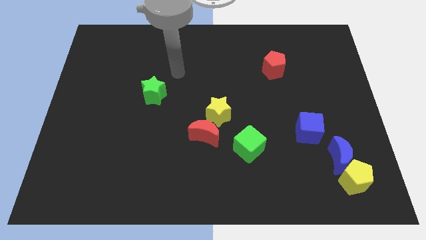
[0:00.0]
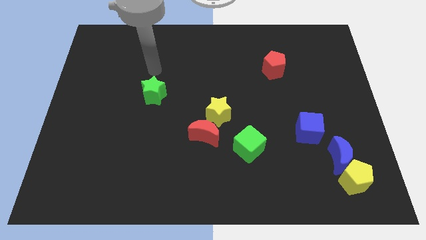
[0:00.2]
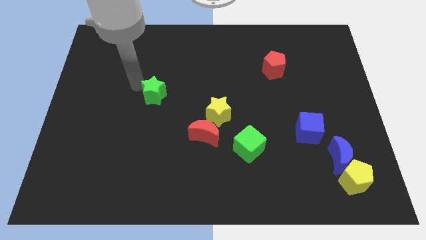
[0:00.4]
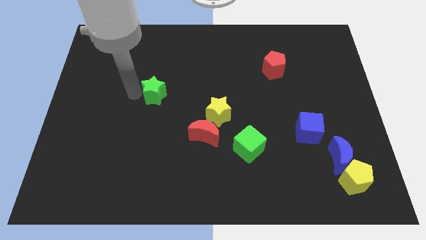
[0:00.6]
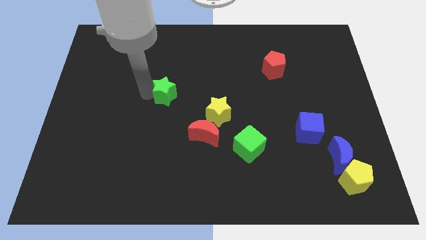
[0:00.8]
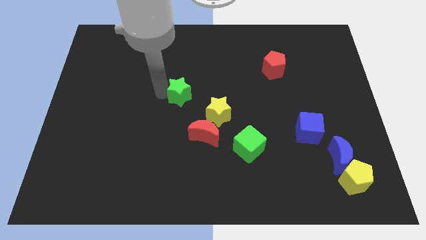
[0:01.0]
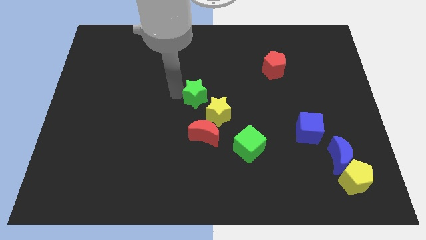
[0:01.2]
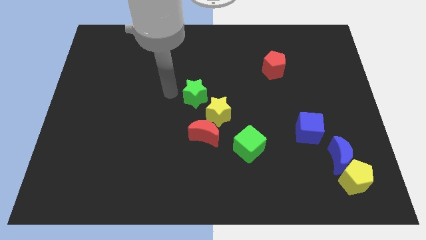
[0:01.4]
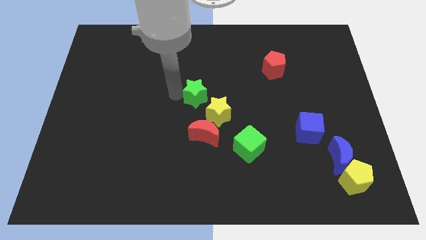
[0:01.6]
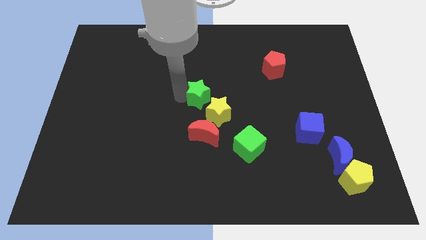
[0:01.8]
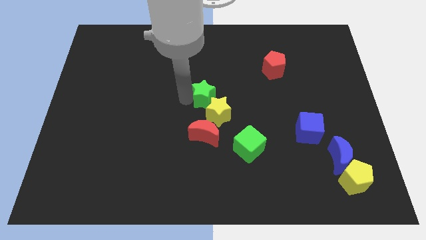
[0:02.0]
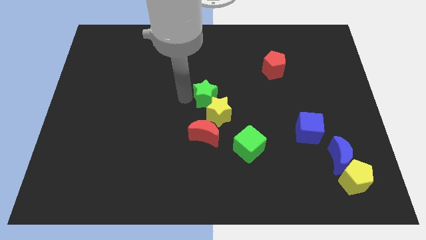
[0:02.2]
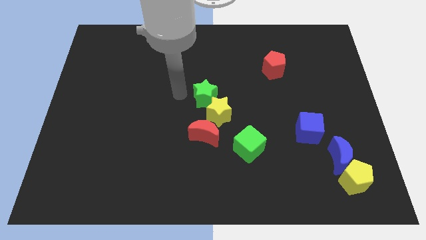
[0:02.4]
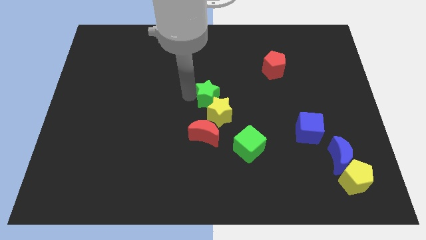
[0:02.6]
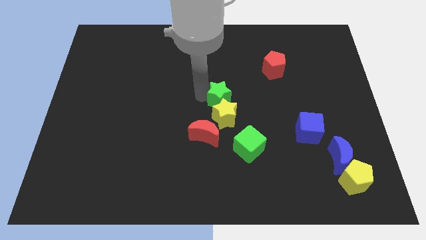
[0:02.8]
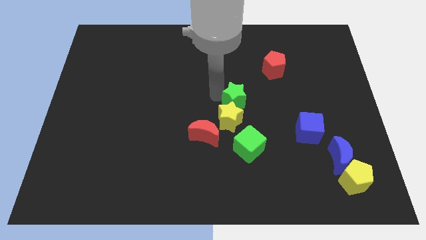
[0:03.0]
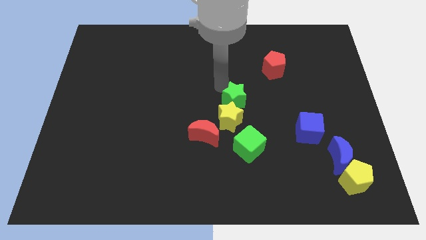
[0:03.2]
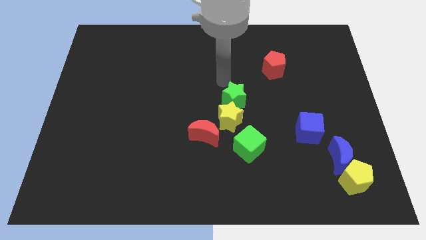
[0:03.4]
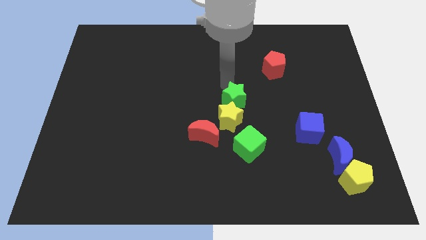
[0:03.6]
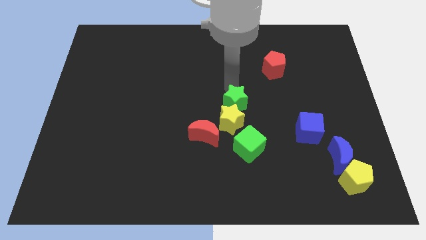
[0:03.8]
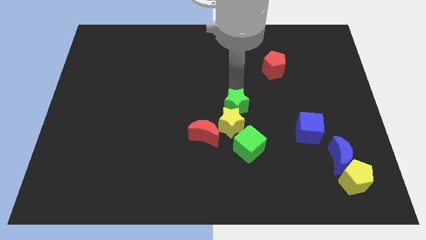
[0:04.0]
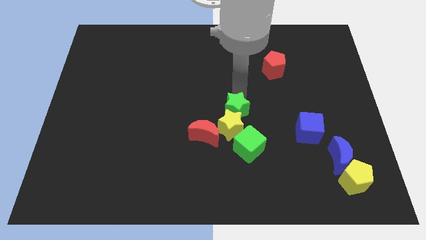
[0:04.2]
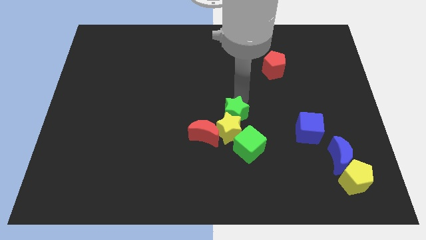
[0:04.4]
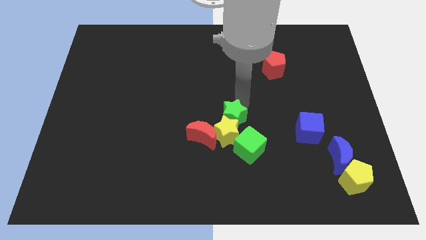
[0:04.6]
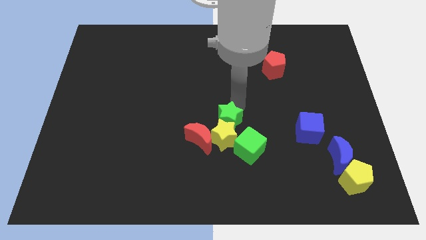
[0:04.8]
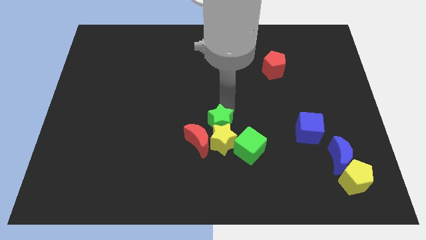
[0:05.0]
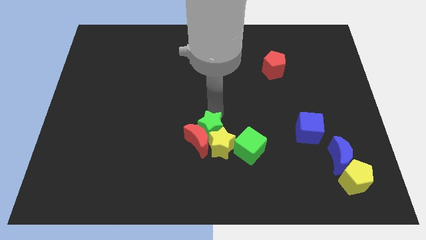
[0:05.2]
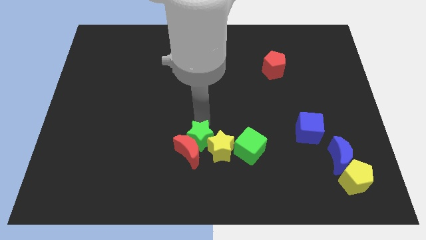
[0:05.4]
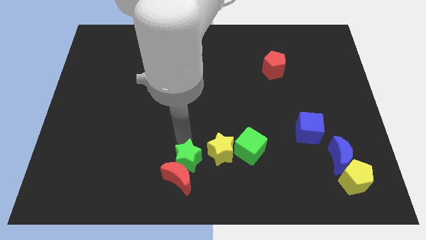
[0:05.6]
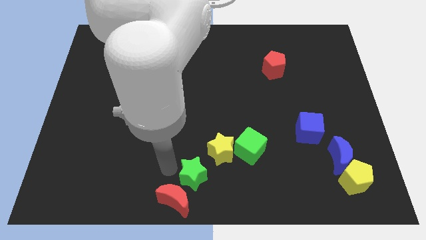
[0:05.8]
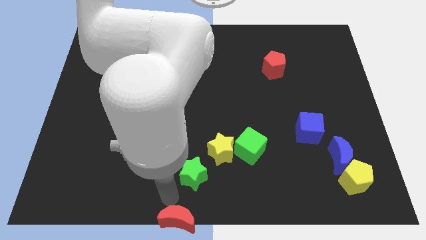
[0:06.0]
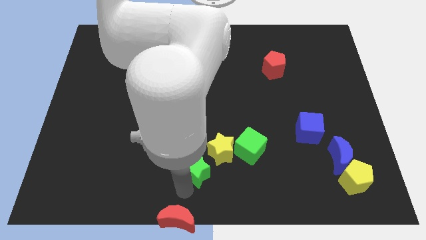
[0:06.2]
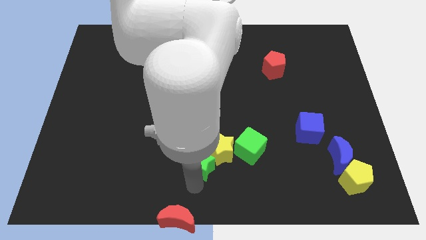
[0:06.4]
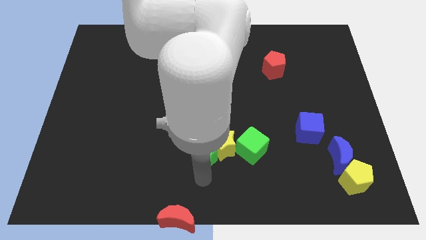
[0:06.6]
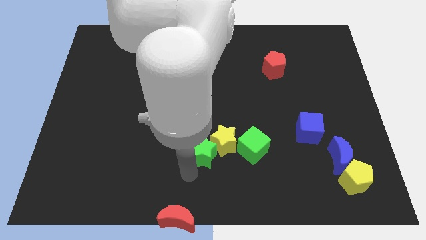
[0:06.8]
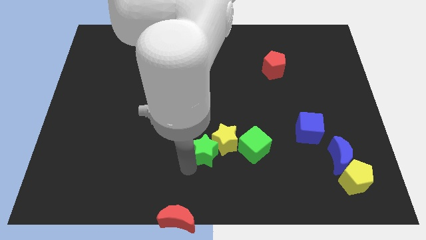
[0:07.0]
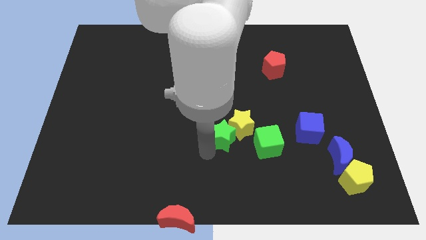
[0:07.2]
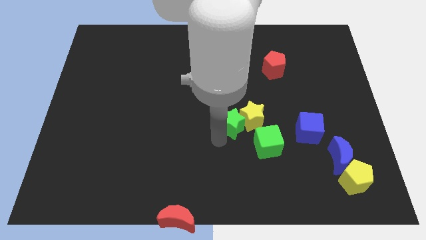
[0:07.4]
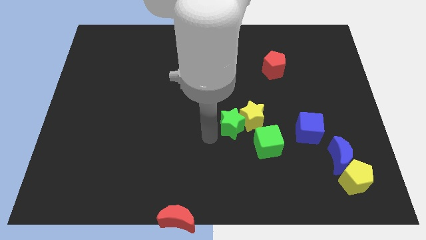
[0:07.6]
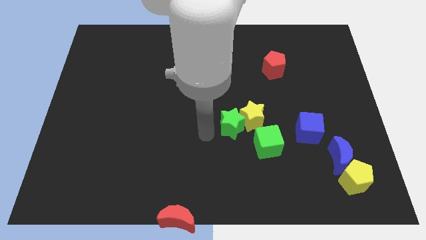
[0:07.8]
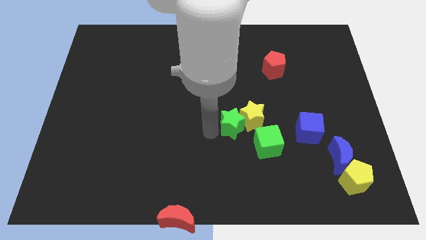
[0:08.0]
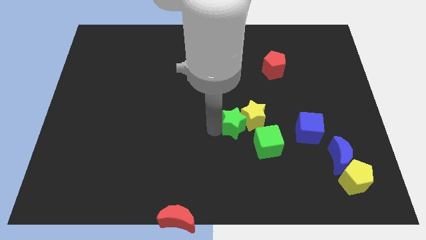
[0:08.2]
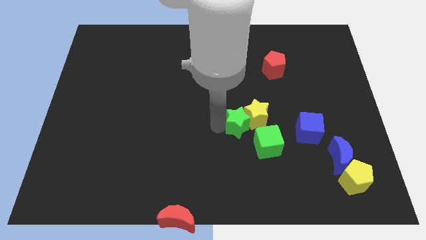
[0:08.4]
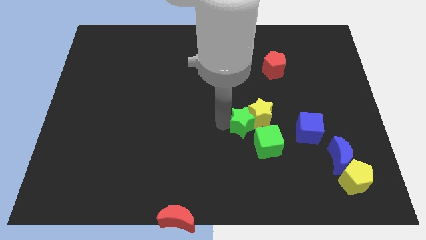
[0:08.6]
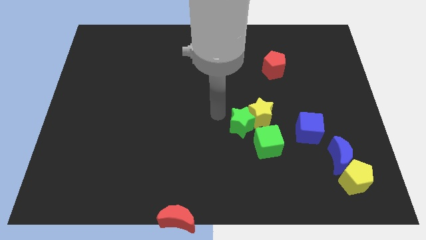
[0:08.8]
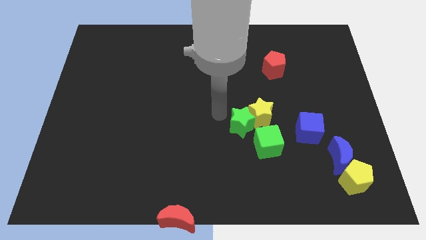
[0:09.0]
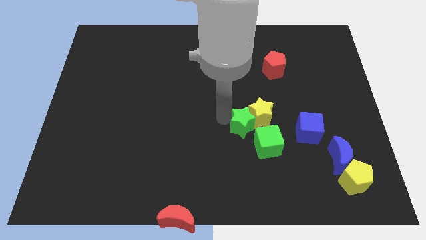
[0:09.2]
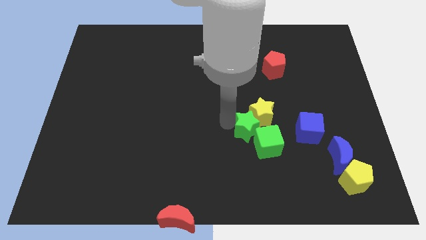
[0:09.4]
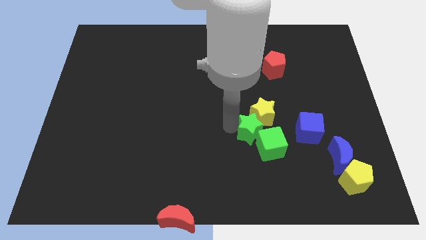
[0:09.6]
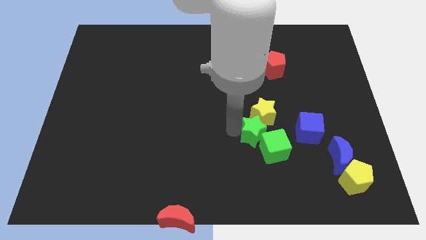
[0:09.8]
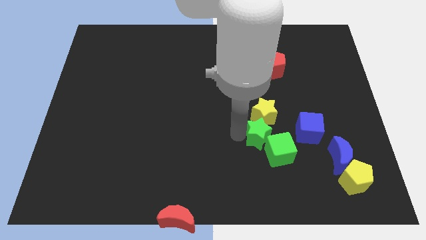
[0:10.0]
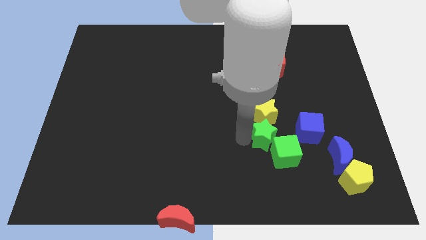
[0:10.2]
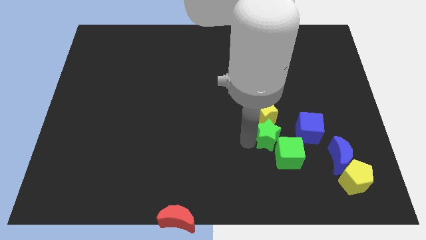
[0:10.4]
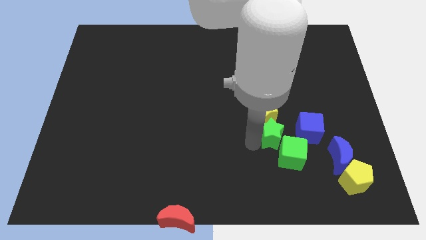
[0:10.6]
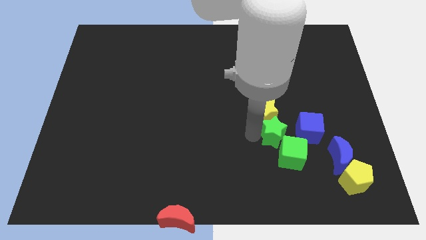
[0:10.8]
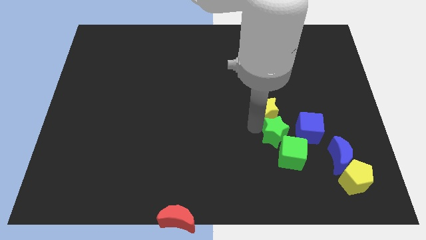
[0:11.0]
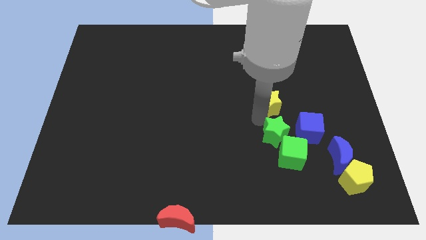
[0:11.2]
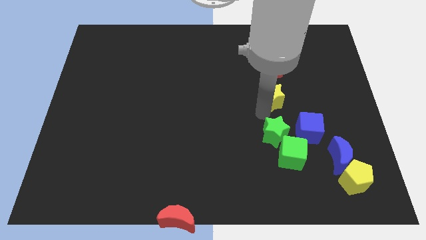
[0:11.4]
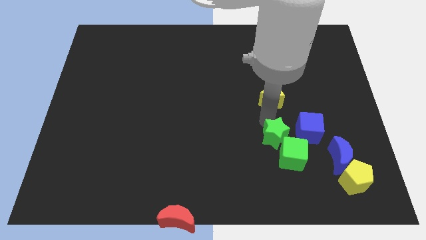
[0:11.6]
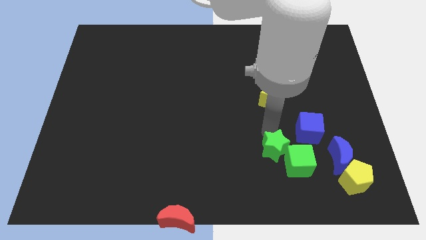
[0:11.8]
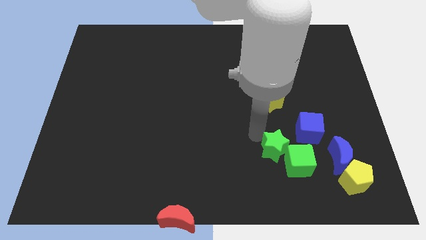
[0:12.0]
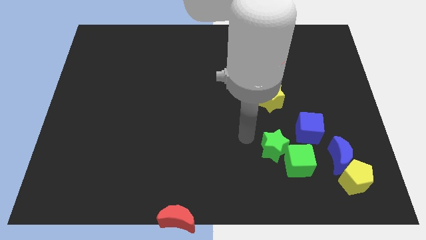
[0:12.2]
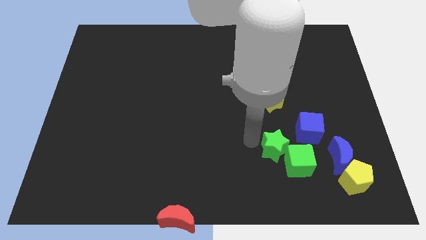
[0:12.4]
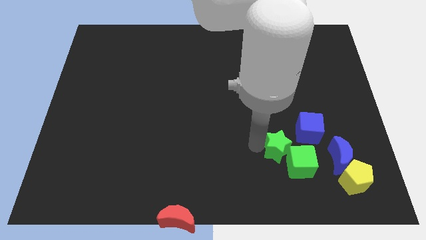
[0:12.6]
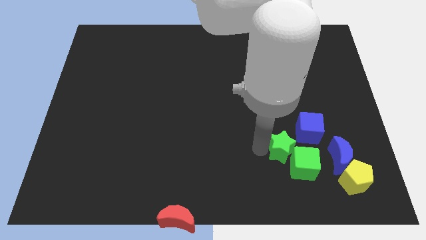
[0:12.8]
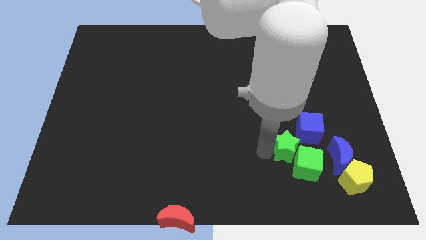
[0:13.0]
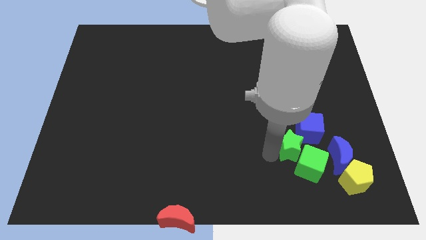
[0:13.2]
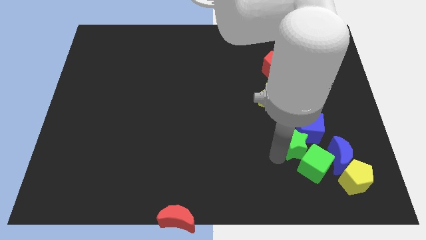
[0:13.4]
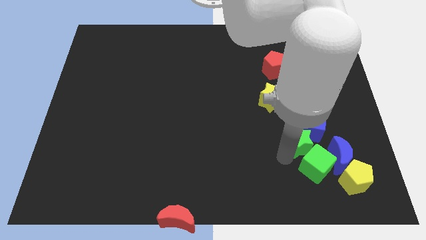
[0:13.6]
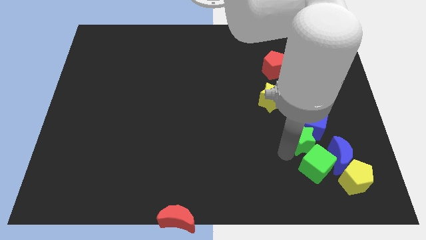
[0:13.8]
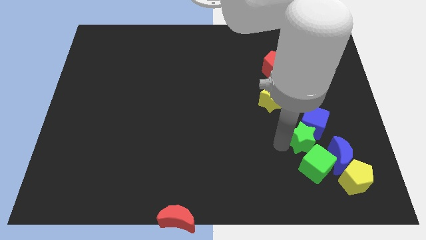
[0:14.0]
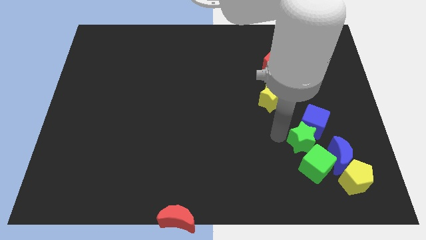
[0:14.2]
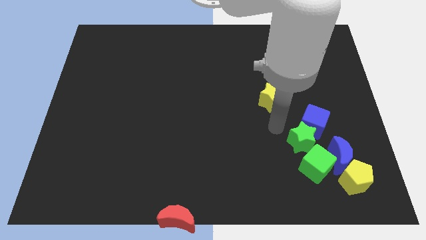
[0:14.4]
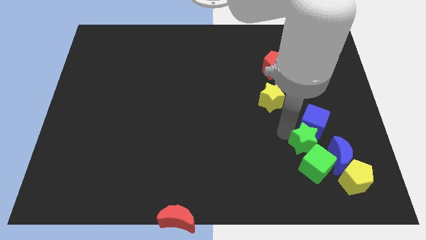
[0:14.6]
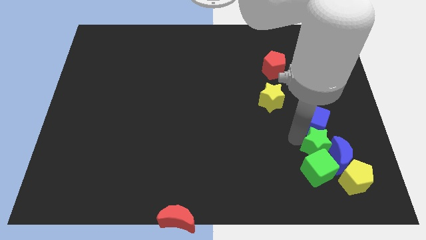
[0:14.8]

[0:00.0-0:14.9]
push the green star to the blue moon
